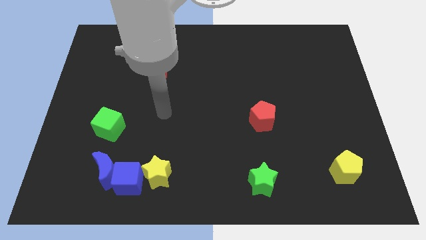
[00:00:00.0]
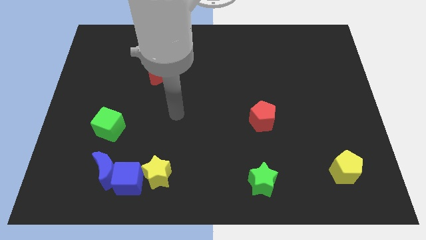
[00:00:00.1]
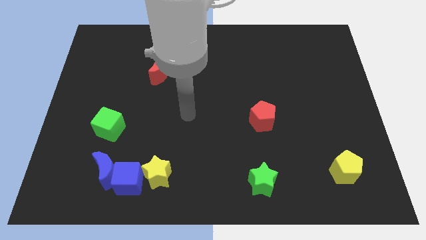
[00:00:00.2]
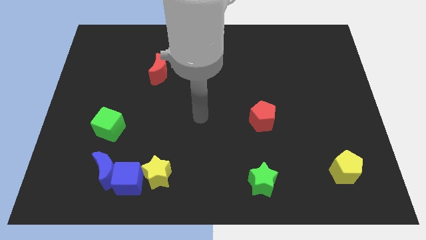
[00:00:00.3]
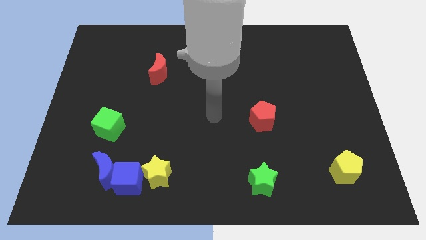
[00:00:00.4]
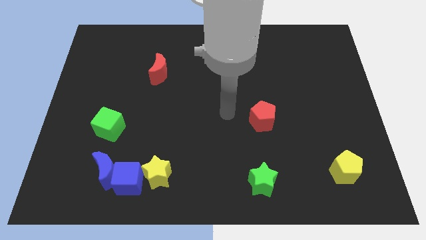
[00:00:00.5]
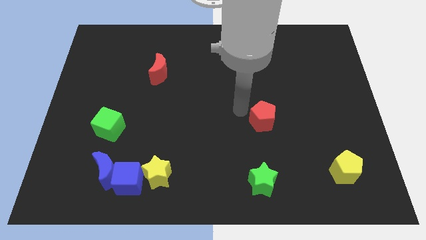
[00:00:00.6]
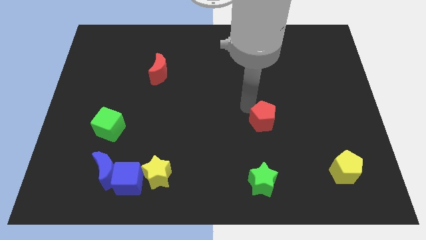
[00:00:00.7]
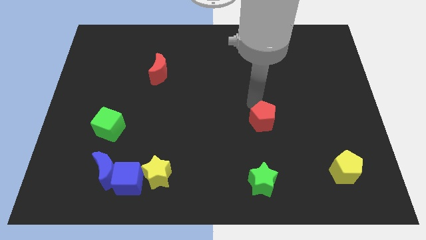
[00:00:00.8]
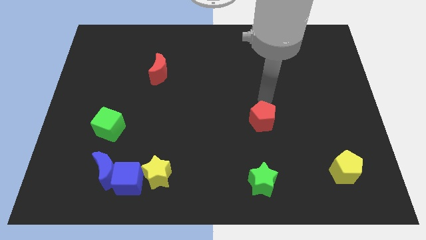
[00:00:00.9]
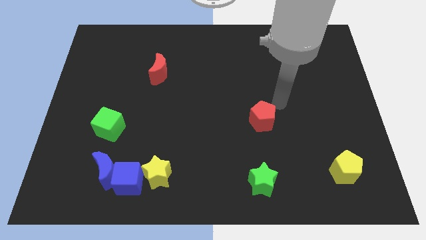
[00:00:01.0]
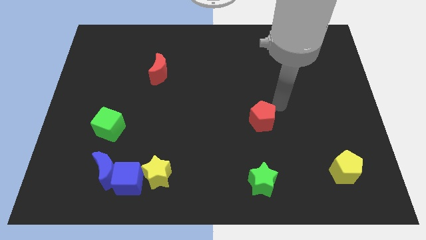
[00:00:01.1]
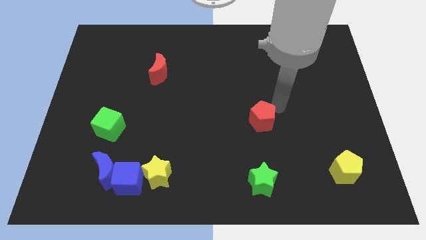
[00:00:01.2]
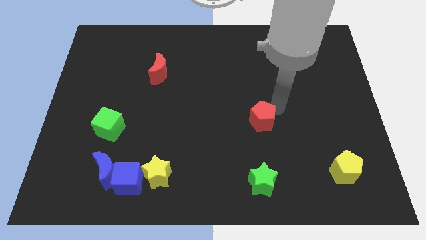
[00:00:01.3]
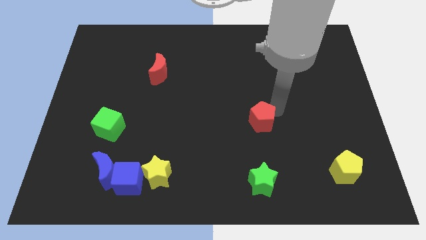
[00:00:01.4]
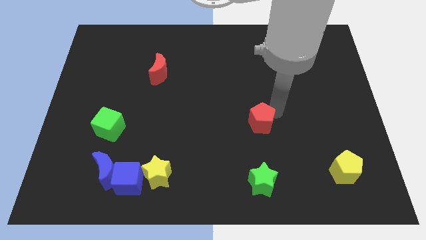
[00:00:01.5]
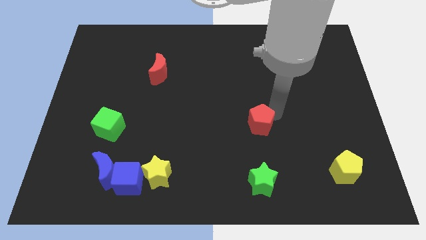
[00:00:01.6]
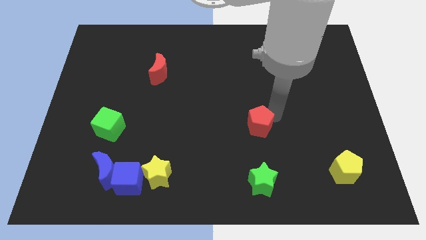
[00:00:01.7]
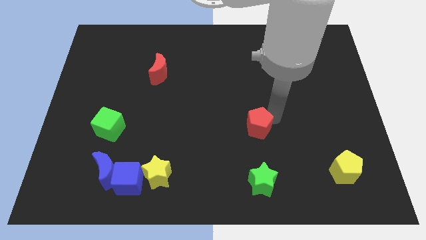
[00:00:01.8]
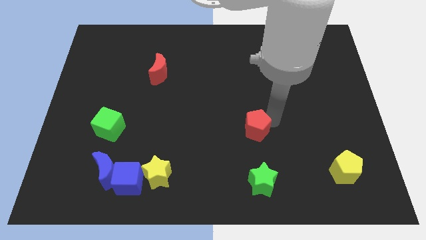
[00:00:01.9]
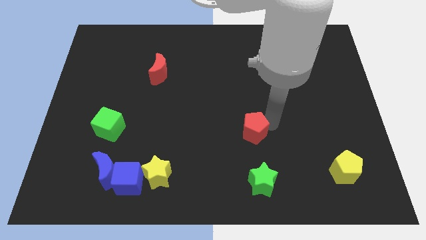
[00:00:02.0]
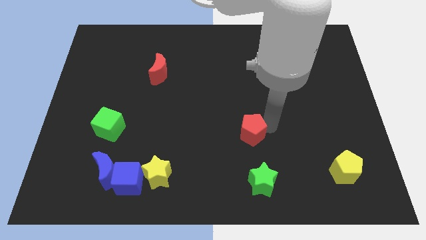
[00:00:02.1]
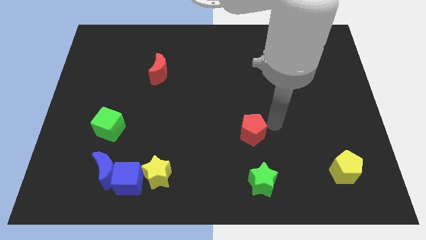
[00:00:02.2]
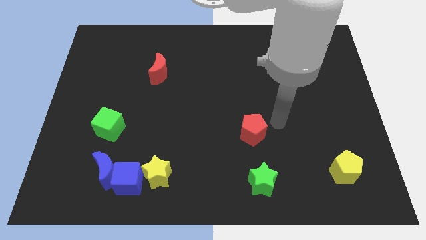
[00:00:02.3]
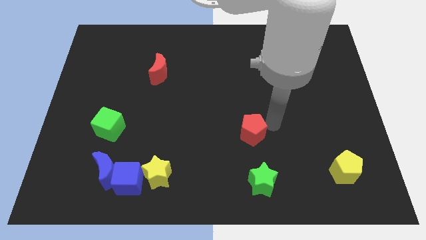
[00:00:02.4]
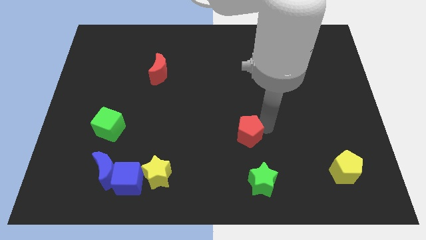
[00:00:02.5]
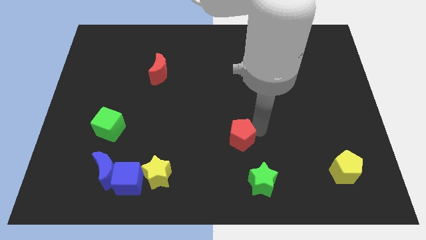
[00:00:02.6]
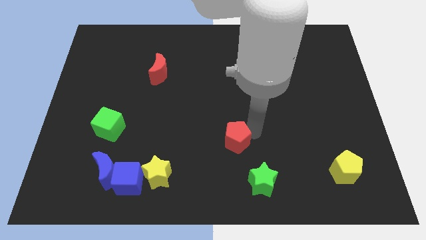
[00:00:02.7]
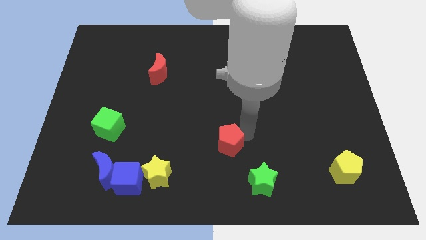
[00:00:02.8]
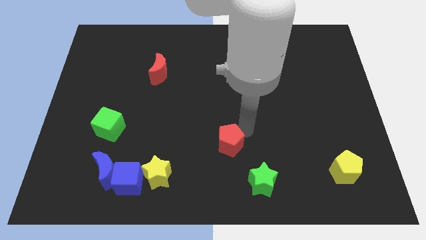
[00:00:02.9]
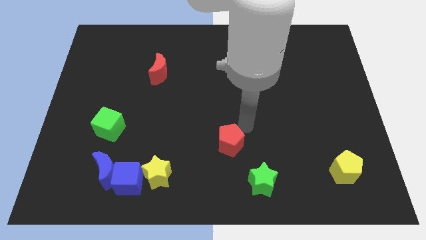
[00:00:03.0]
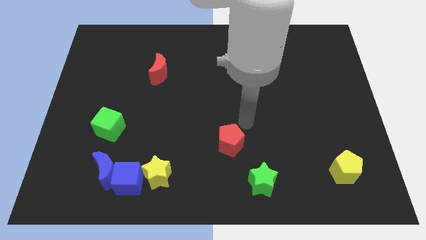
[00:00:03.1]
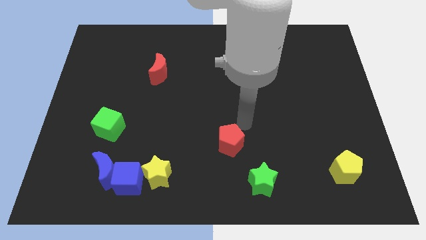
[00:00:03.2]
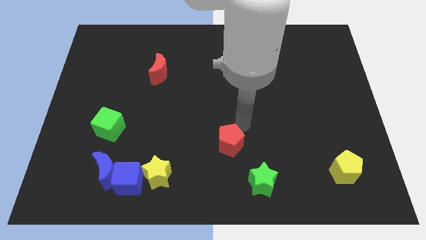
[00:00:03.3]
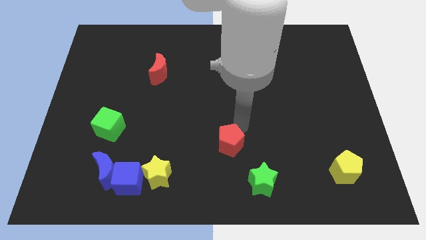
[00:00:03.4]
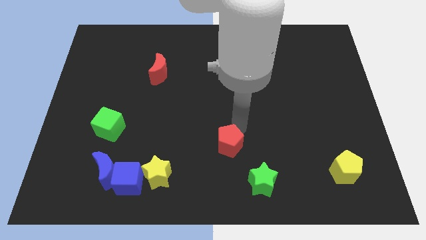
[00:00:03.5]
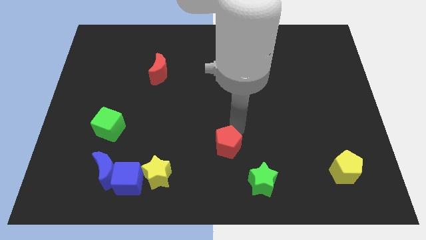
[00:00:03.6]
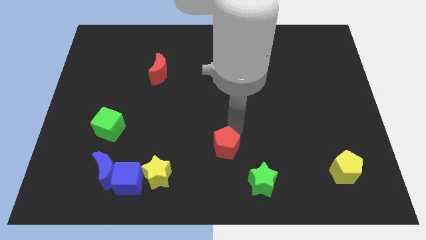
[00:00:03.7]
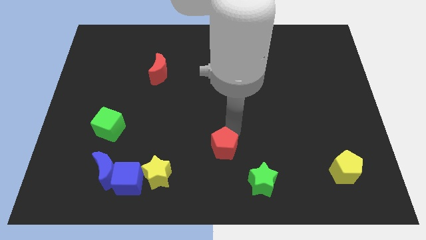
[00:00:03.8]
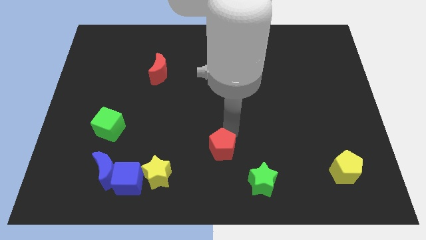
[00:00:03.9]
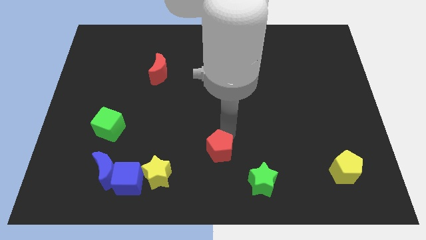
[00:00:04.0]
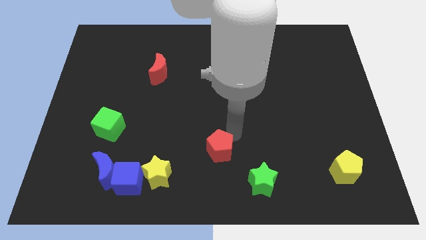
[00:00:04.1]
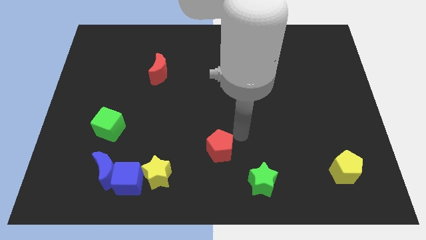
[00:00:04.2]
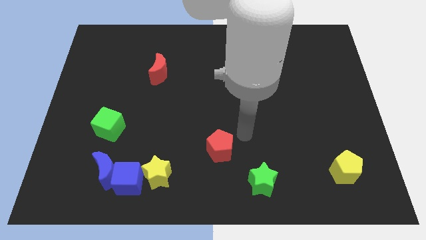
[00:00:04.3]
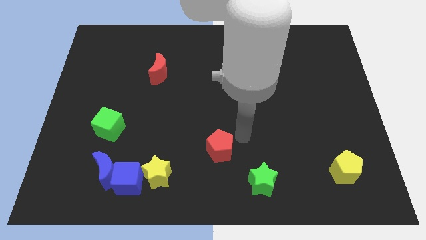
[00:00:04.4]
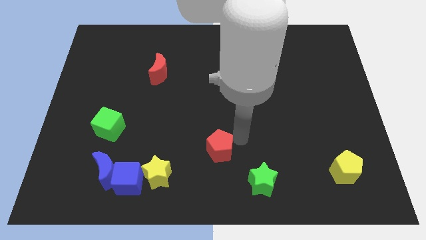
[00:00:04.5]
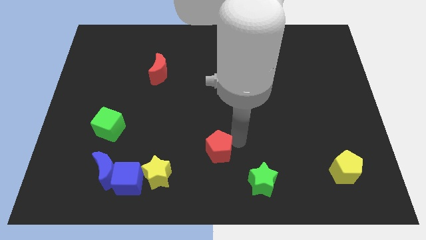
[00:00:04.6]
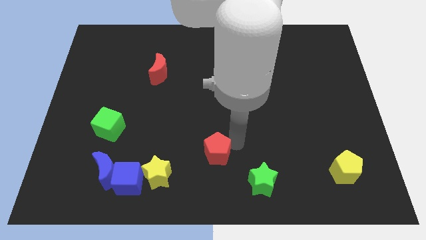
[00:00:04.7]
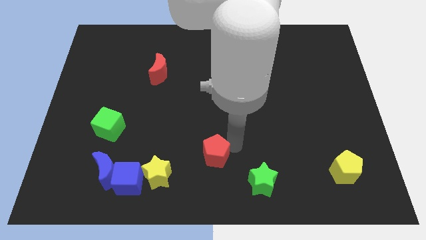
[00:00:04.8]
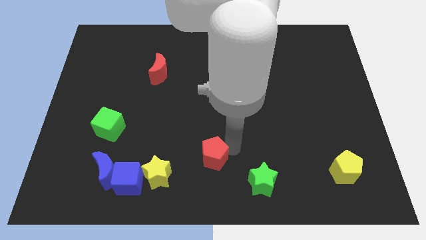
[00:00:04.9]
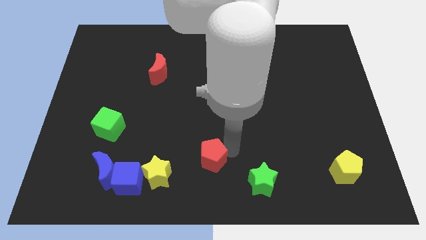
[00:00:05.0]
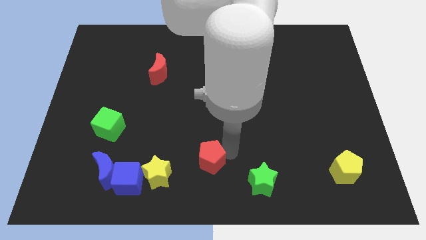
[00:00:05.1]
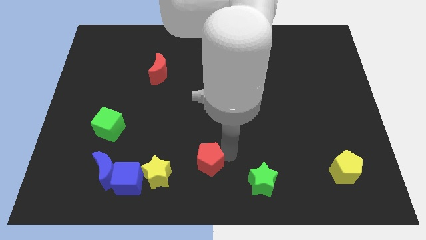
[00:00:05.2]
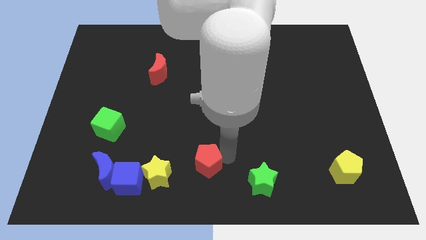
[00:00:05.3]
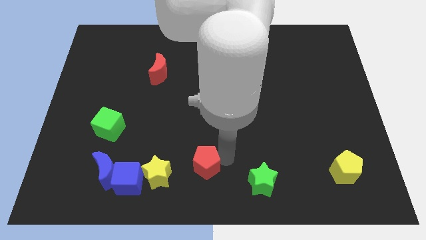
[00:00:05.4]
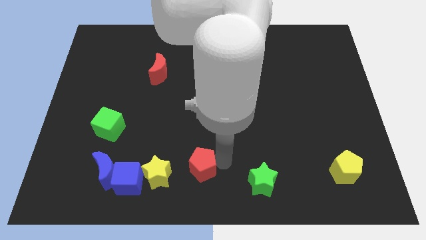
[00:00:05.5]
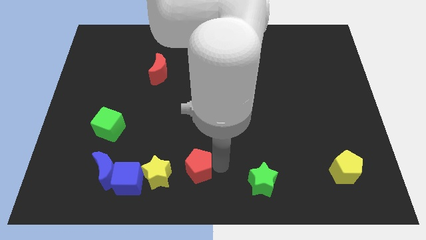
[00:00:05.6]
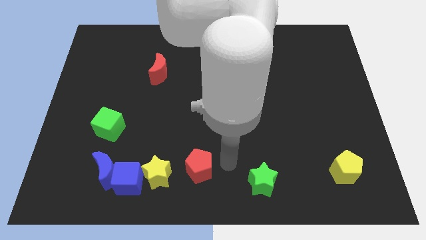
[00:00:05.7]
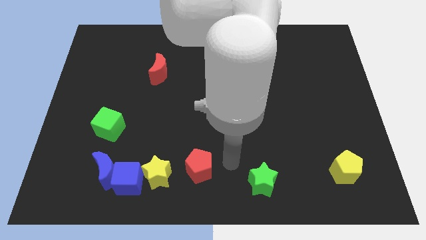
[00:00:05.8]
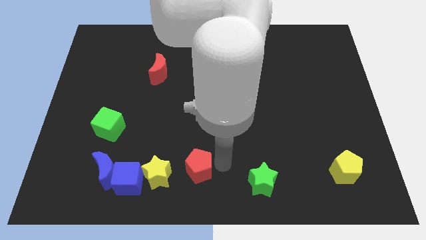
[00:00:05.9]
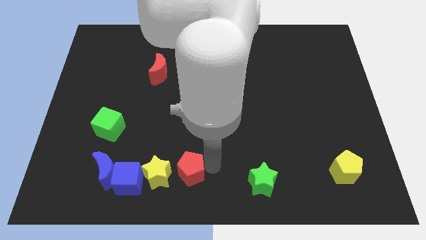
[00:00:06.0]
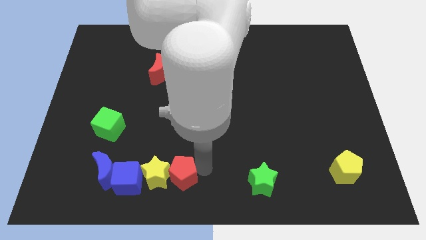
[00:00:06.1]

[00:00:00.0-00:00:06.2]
move the red pentagon to the yellow star

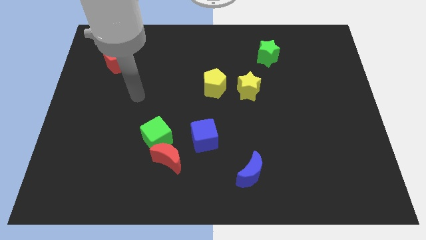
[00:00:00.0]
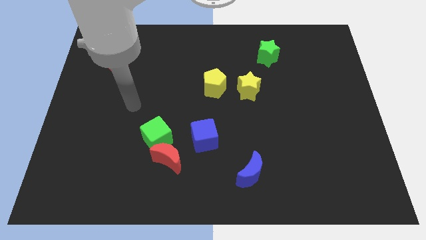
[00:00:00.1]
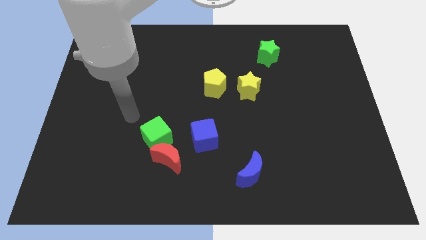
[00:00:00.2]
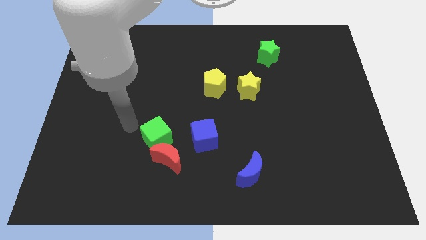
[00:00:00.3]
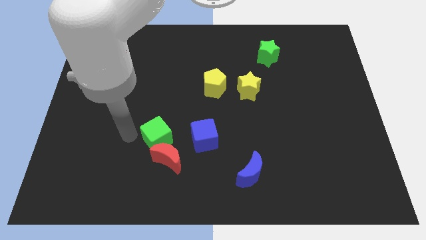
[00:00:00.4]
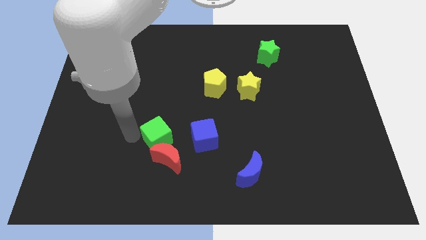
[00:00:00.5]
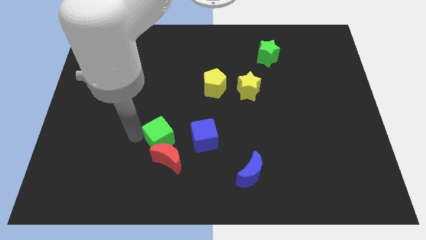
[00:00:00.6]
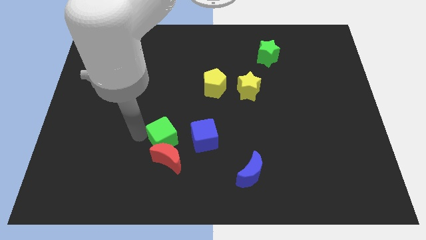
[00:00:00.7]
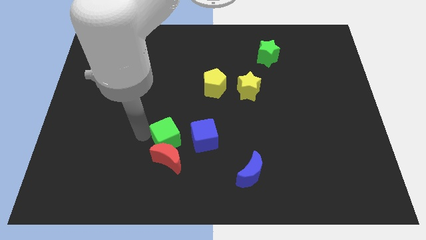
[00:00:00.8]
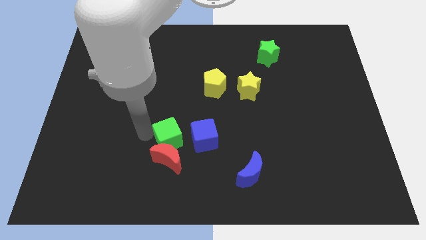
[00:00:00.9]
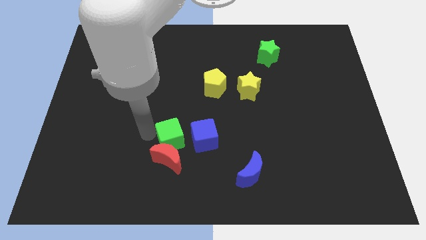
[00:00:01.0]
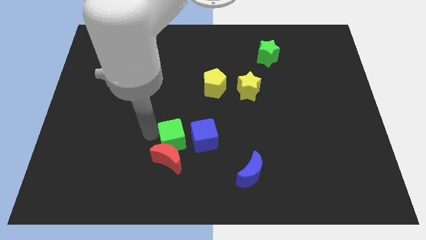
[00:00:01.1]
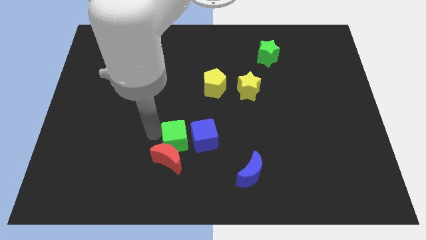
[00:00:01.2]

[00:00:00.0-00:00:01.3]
put the green cube close to the blue cube
